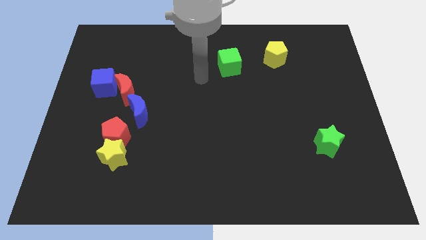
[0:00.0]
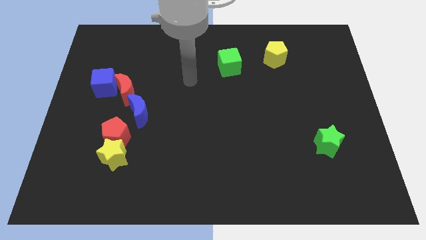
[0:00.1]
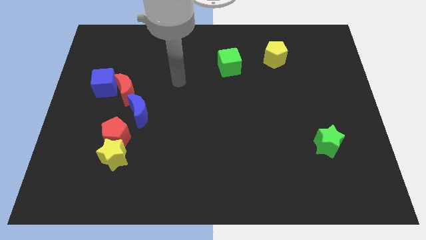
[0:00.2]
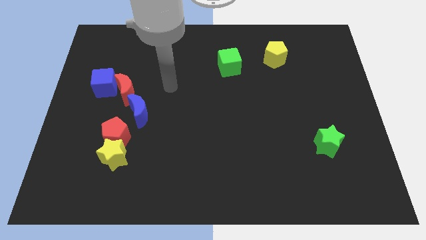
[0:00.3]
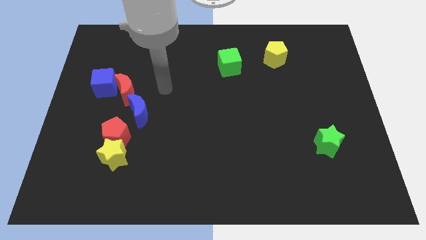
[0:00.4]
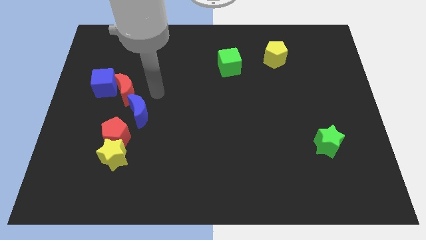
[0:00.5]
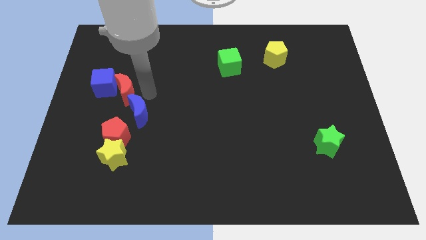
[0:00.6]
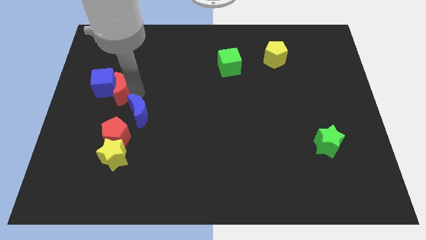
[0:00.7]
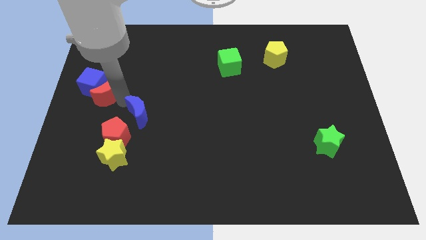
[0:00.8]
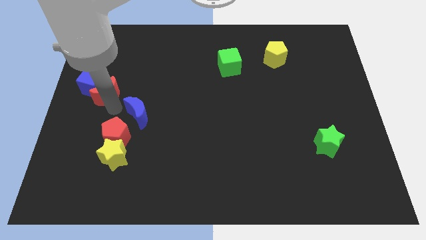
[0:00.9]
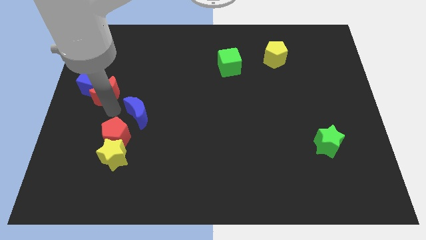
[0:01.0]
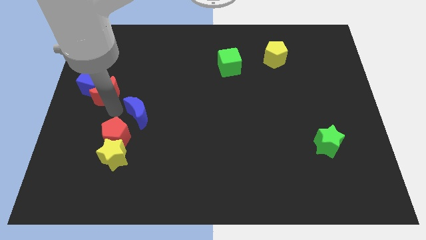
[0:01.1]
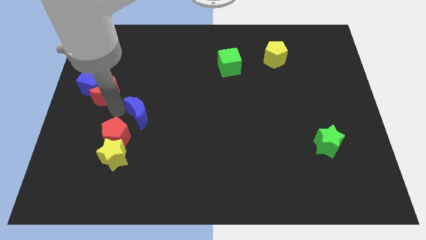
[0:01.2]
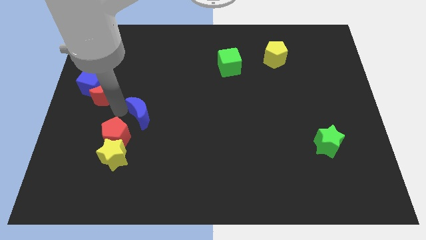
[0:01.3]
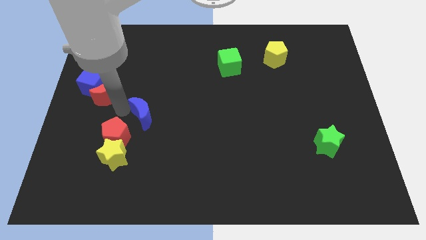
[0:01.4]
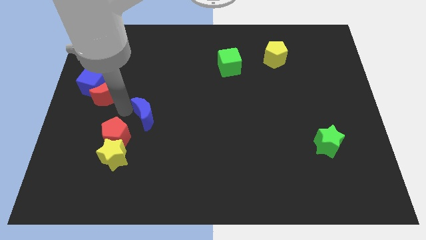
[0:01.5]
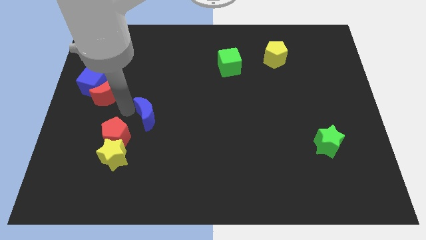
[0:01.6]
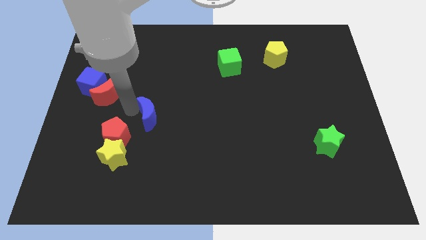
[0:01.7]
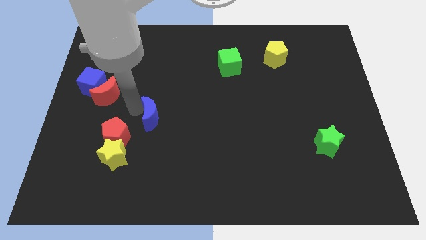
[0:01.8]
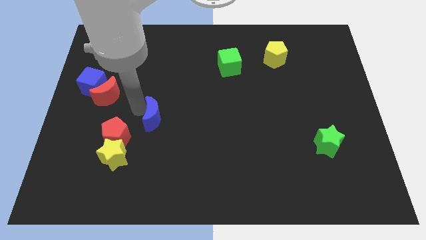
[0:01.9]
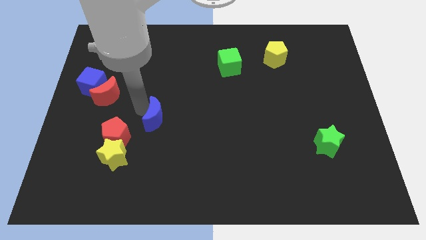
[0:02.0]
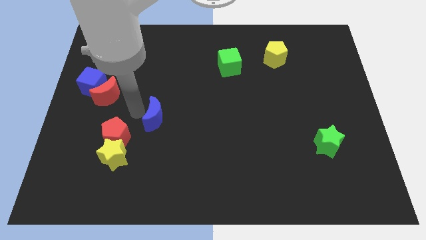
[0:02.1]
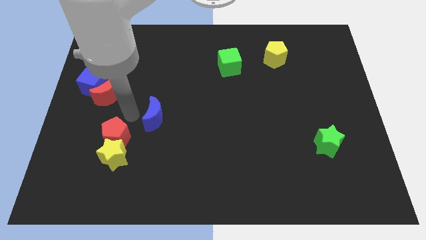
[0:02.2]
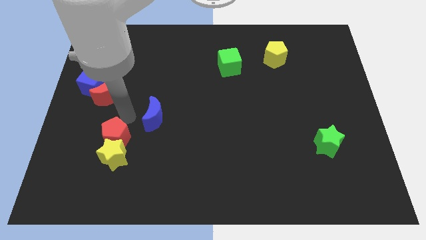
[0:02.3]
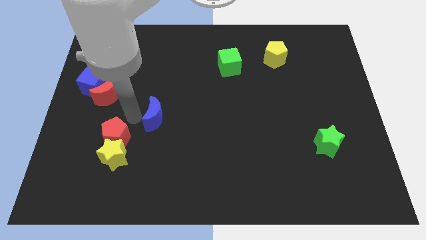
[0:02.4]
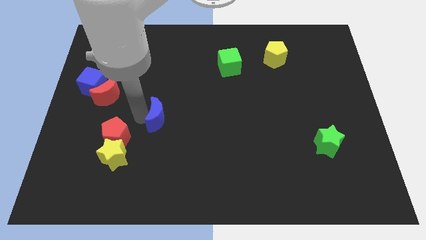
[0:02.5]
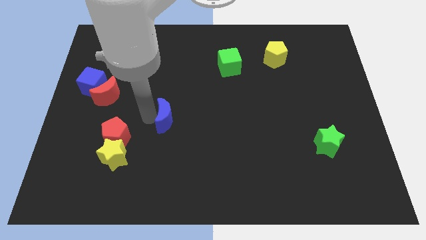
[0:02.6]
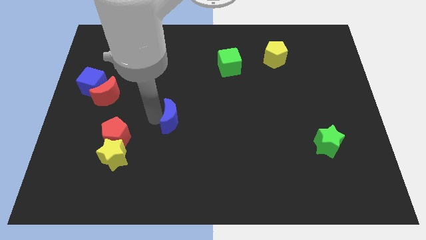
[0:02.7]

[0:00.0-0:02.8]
slightly move the blue moon to the right

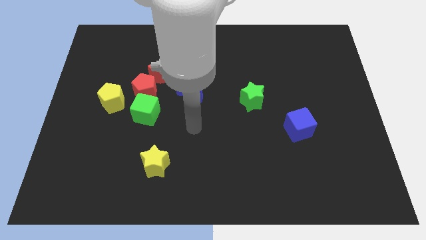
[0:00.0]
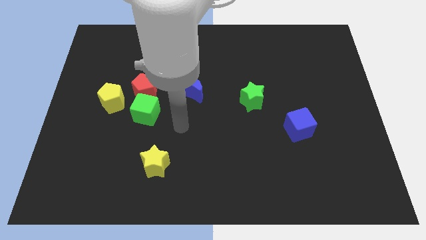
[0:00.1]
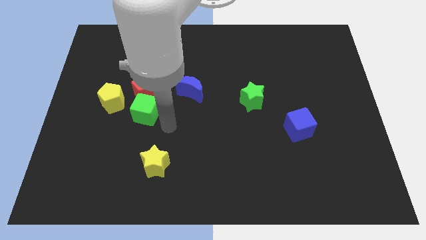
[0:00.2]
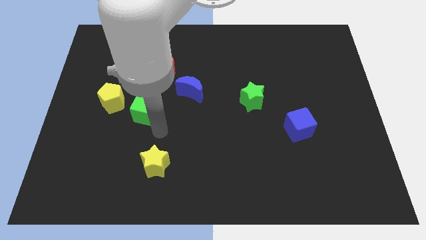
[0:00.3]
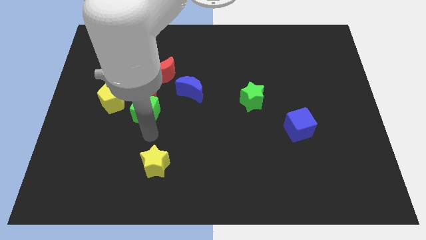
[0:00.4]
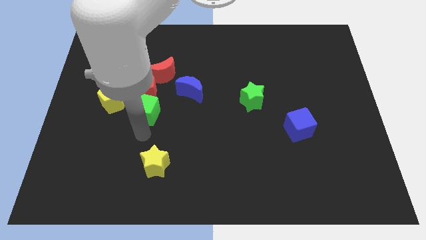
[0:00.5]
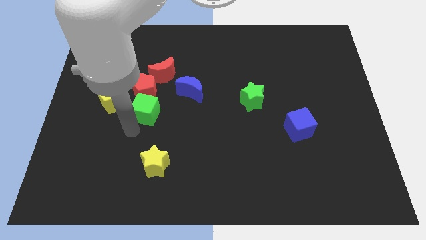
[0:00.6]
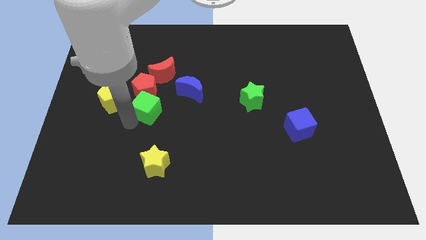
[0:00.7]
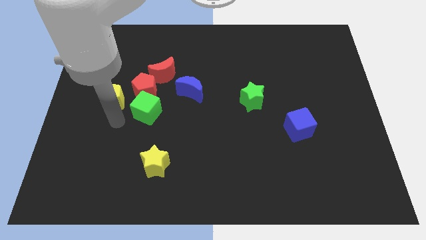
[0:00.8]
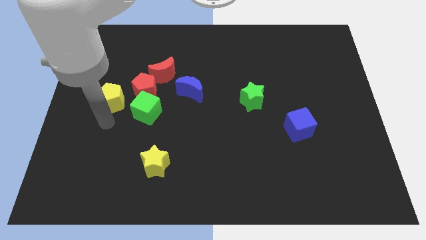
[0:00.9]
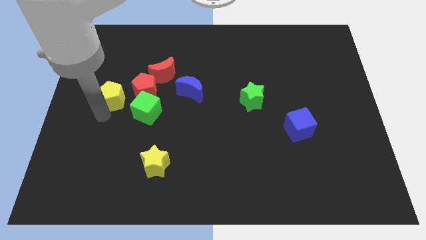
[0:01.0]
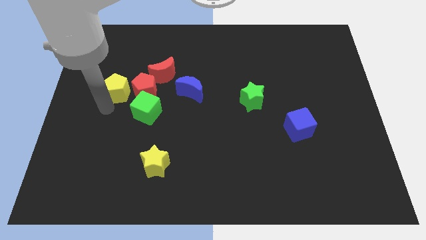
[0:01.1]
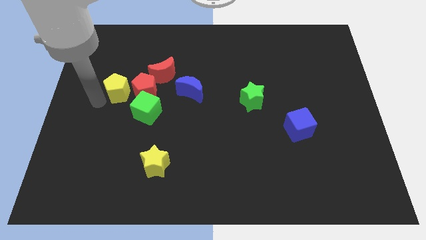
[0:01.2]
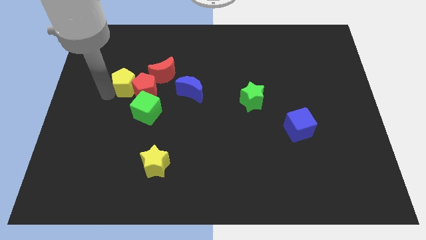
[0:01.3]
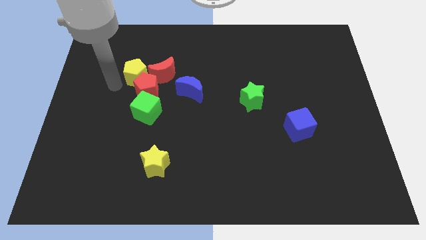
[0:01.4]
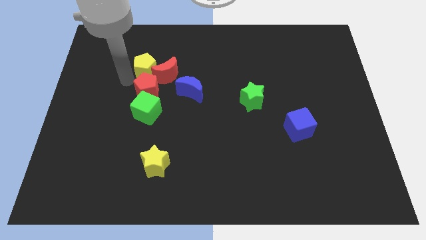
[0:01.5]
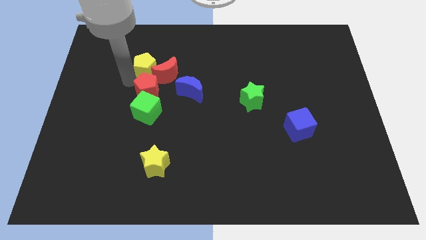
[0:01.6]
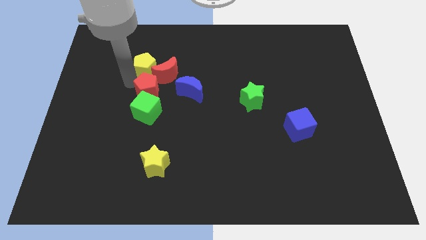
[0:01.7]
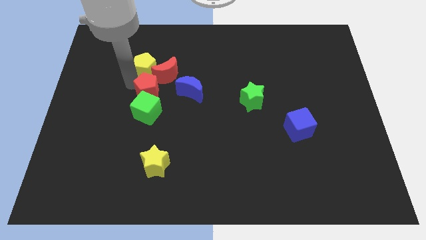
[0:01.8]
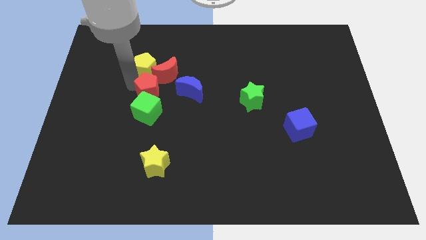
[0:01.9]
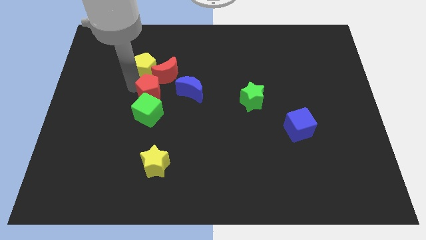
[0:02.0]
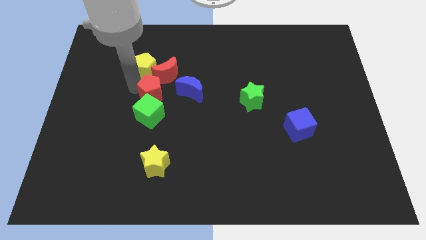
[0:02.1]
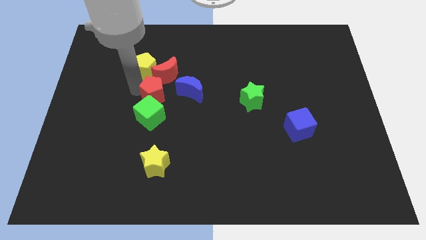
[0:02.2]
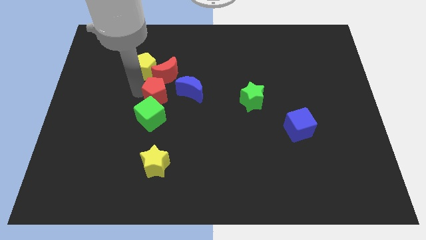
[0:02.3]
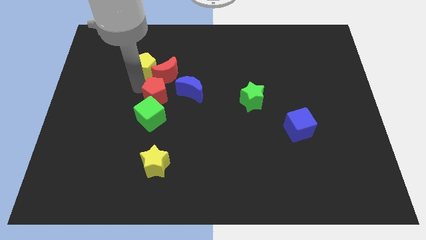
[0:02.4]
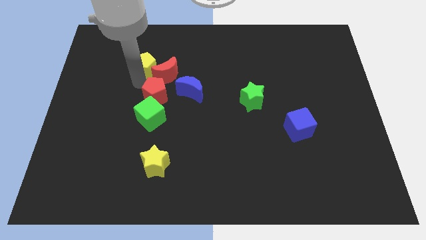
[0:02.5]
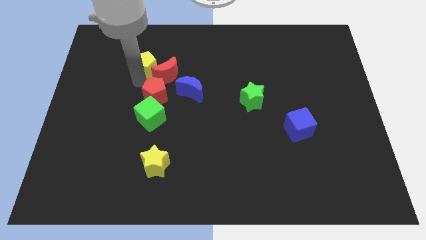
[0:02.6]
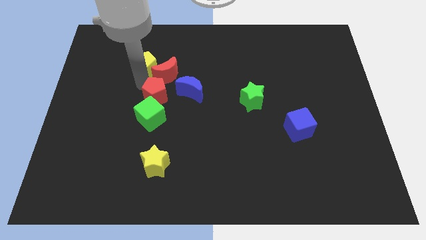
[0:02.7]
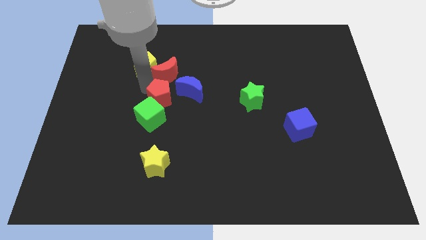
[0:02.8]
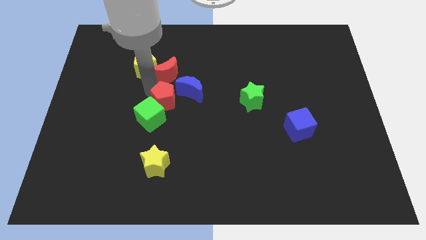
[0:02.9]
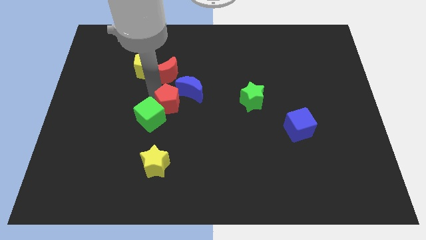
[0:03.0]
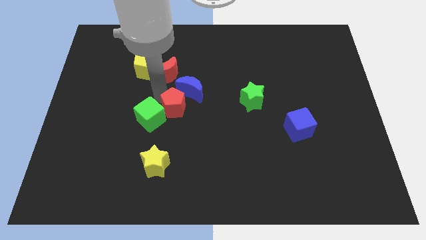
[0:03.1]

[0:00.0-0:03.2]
slide the red pentagon a little downwards and then right

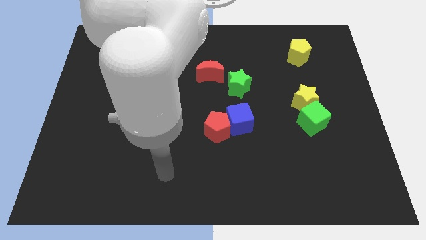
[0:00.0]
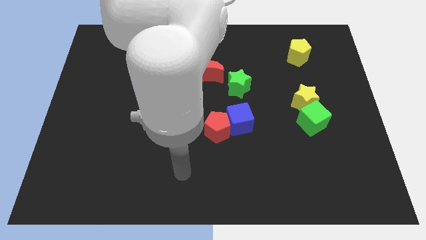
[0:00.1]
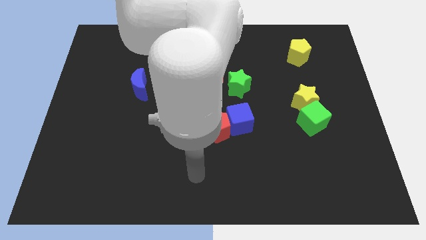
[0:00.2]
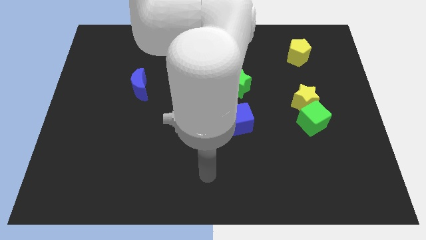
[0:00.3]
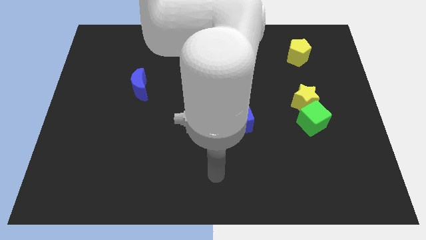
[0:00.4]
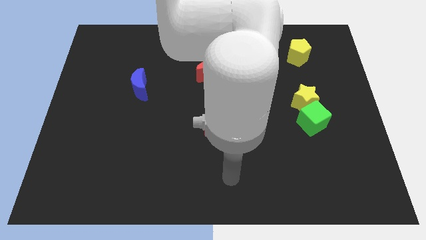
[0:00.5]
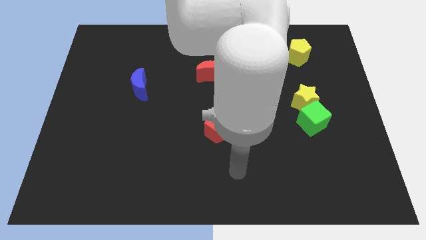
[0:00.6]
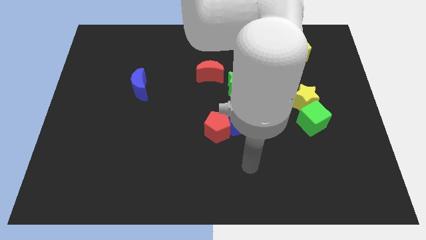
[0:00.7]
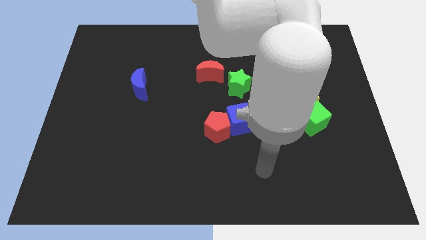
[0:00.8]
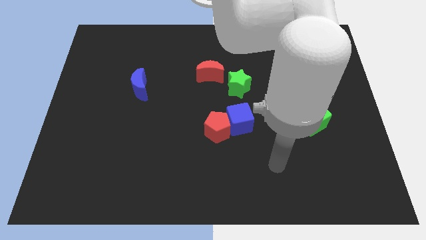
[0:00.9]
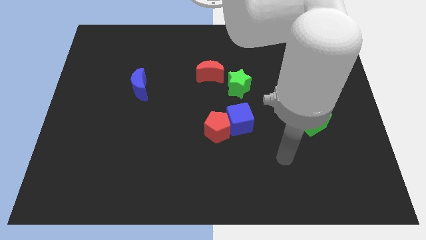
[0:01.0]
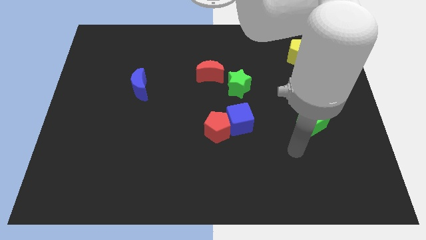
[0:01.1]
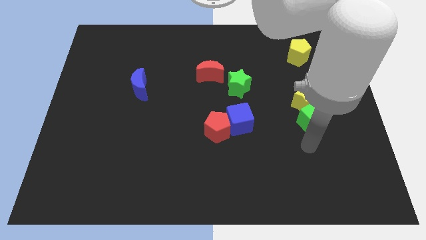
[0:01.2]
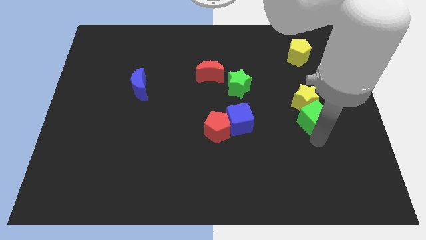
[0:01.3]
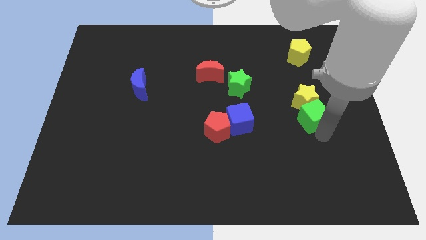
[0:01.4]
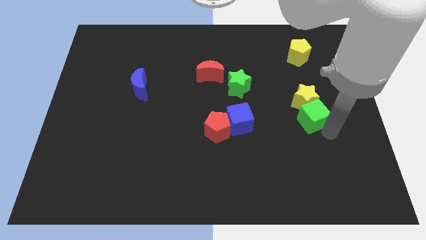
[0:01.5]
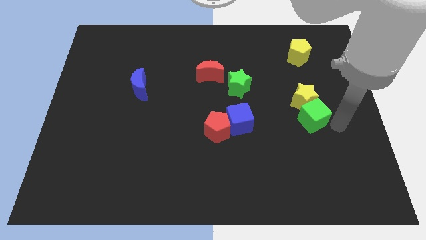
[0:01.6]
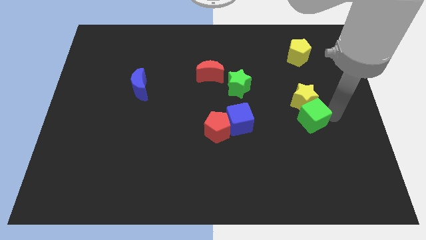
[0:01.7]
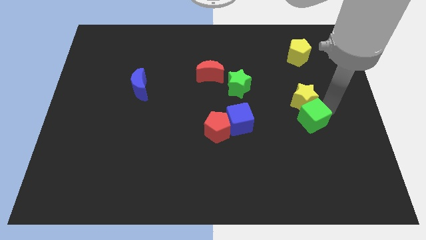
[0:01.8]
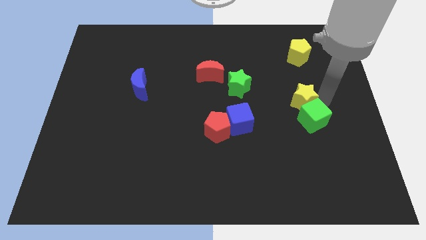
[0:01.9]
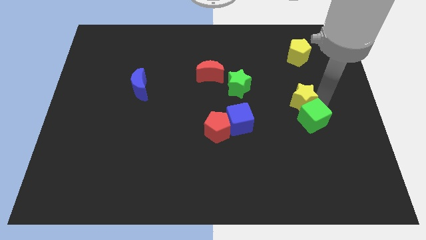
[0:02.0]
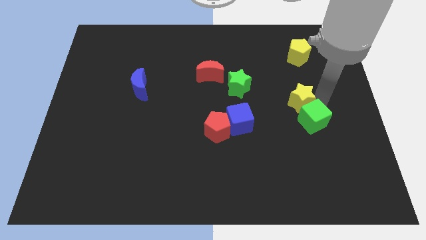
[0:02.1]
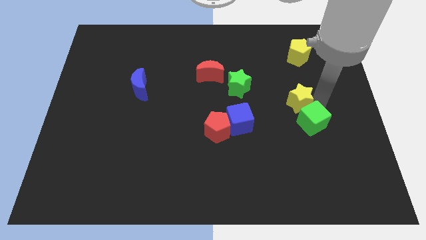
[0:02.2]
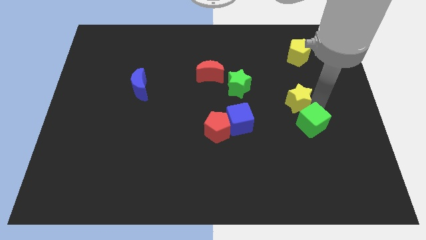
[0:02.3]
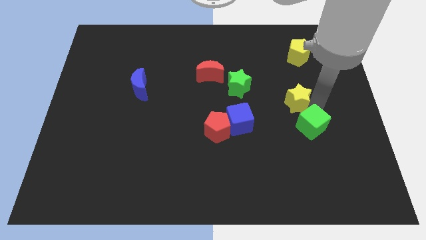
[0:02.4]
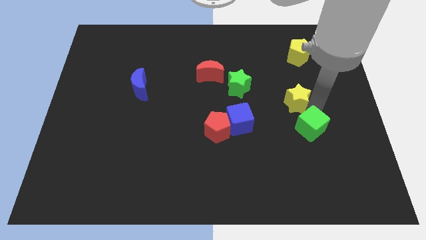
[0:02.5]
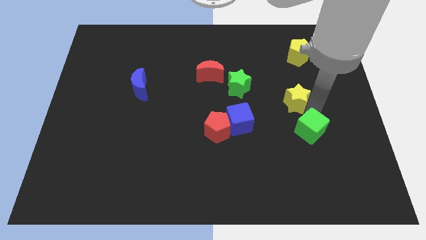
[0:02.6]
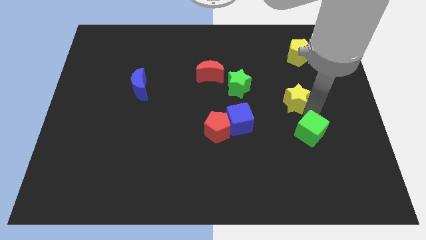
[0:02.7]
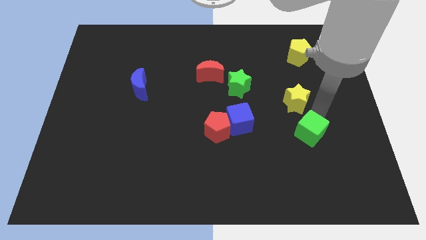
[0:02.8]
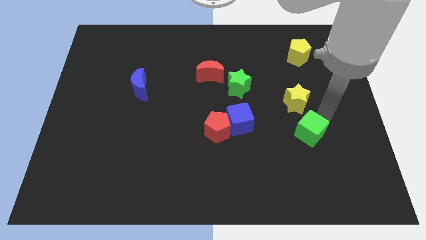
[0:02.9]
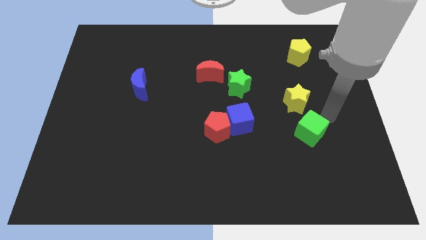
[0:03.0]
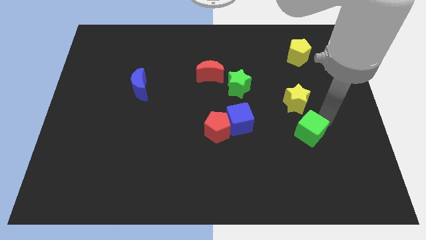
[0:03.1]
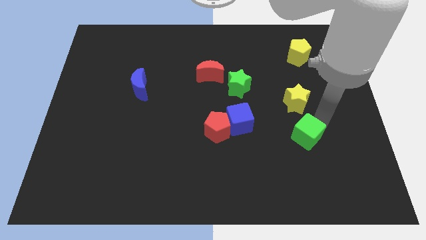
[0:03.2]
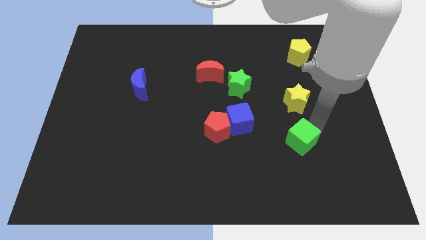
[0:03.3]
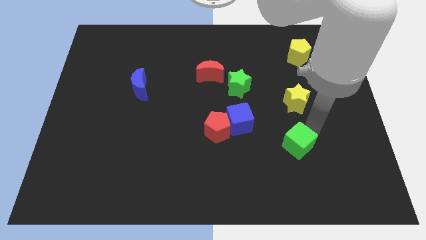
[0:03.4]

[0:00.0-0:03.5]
slightly move the green cube down and to the left
